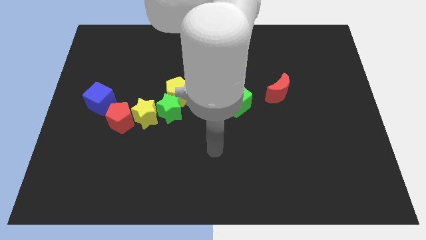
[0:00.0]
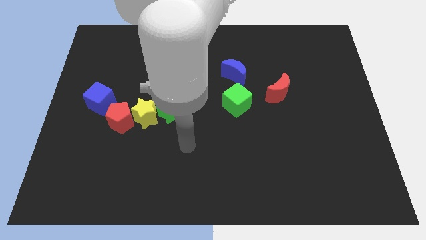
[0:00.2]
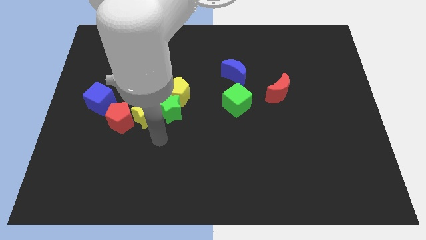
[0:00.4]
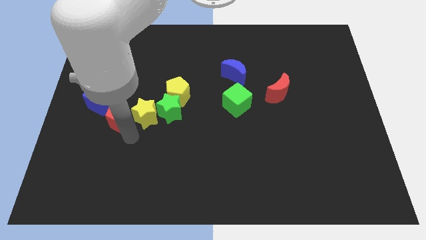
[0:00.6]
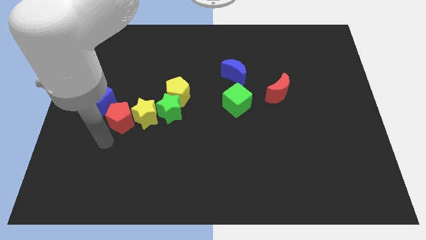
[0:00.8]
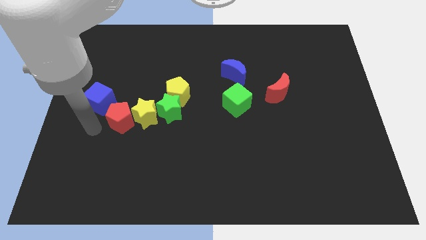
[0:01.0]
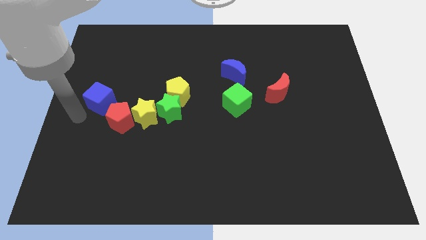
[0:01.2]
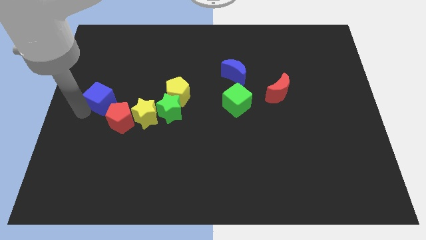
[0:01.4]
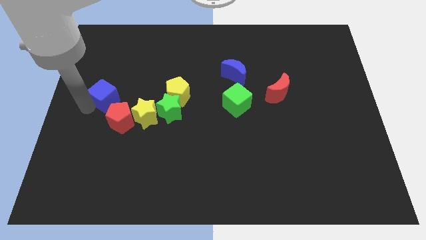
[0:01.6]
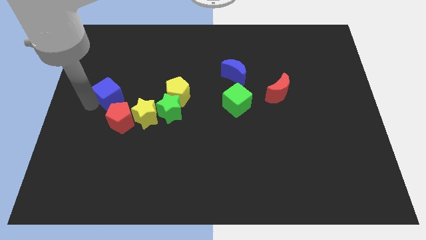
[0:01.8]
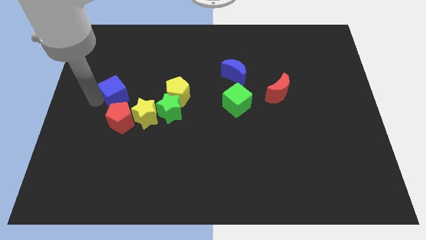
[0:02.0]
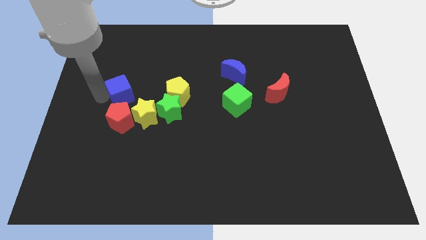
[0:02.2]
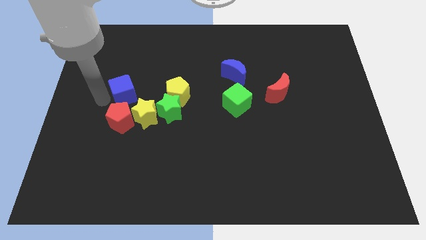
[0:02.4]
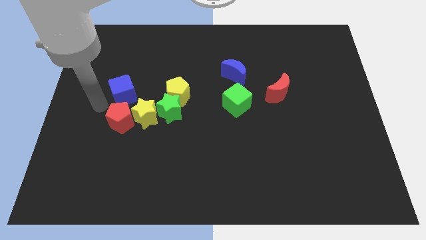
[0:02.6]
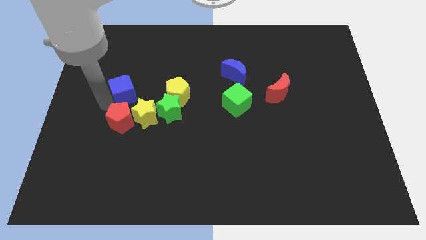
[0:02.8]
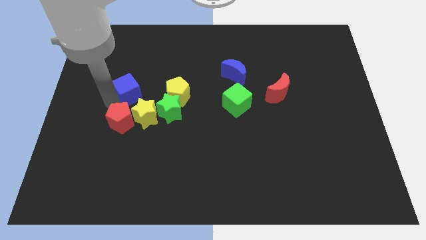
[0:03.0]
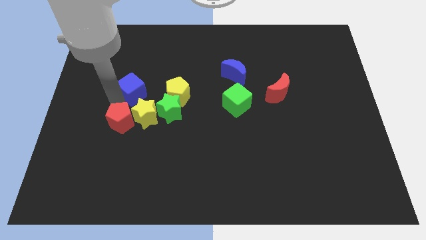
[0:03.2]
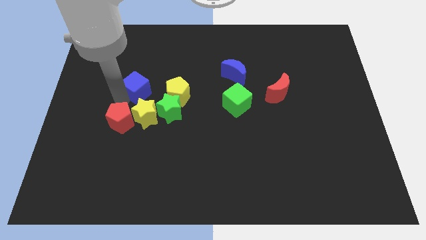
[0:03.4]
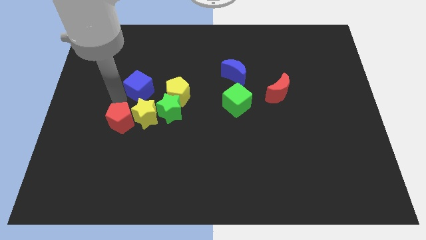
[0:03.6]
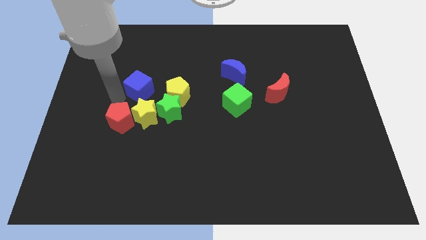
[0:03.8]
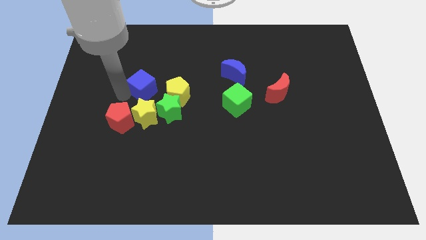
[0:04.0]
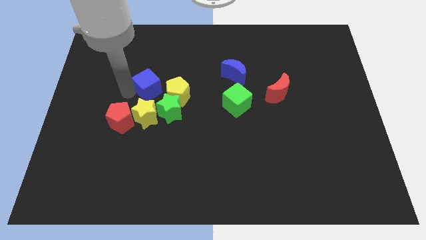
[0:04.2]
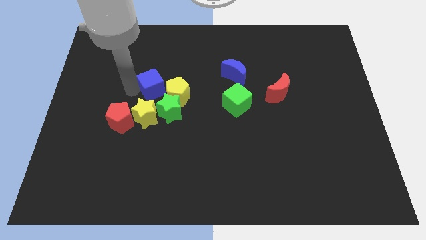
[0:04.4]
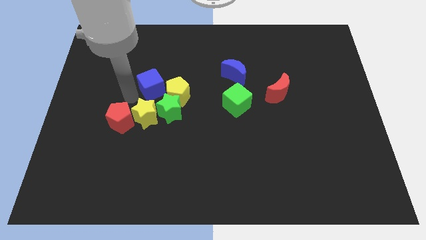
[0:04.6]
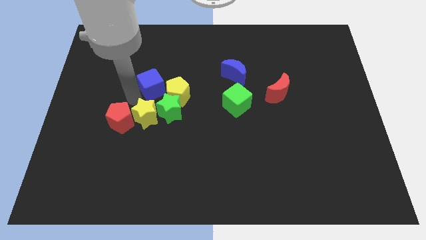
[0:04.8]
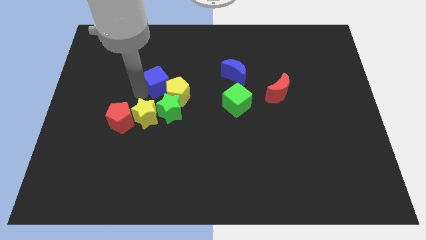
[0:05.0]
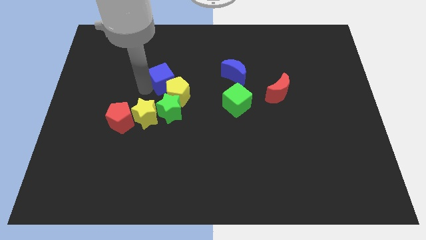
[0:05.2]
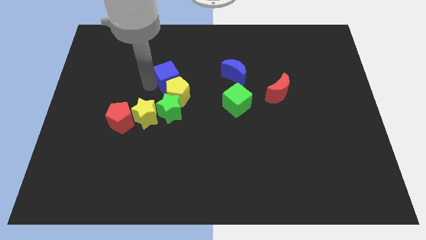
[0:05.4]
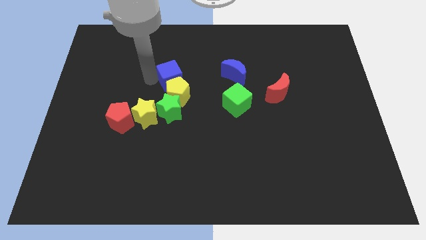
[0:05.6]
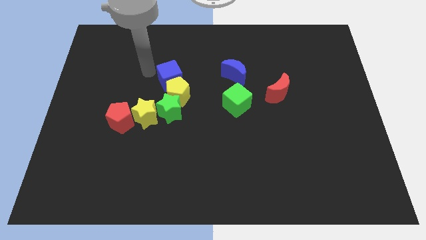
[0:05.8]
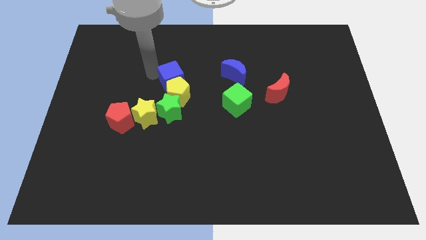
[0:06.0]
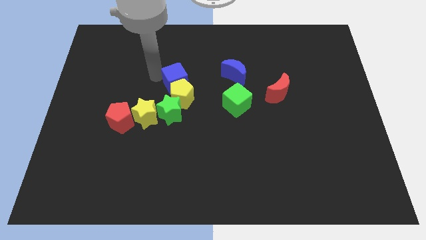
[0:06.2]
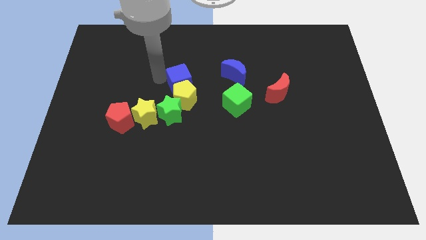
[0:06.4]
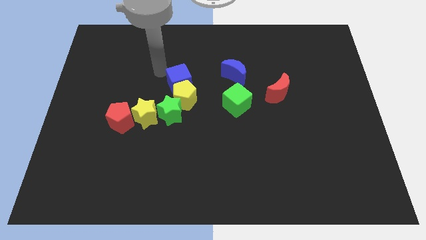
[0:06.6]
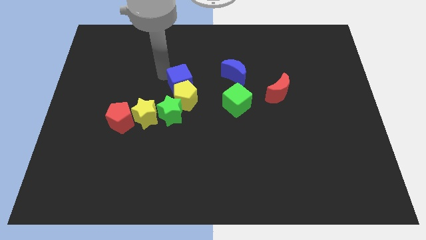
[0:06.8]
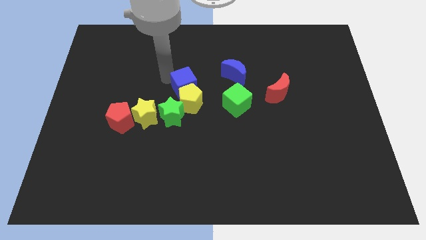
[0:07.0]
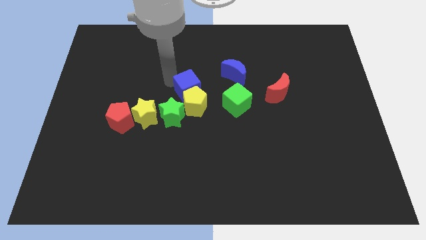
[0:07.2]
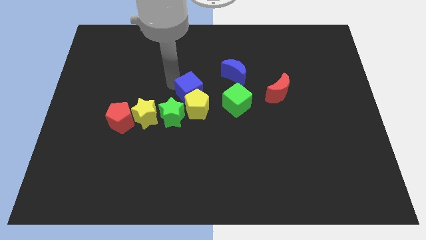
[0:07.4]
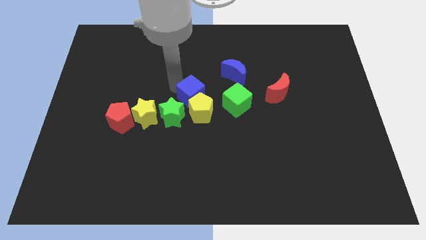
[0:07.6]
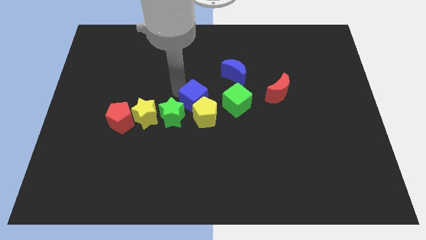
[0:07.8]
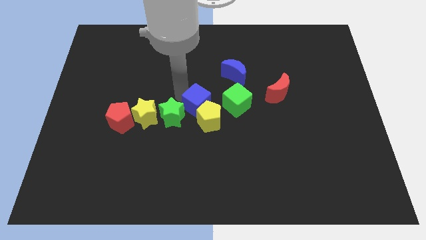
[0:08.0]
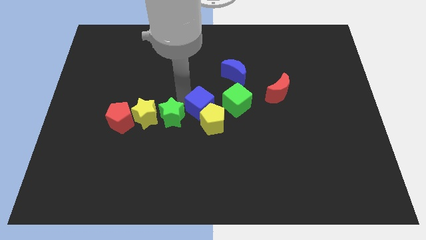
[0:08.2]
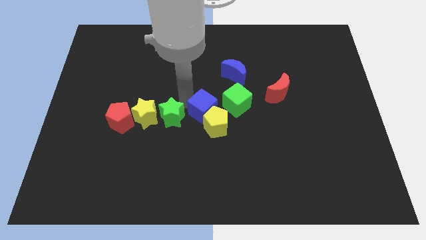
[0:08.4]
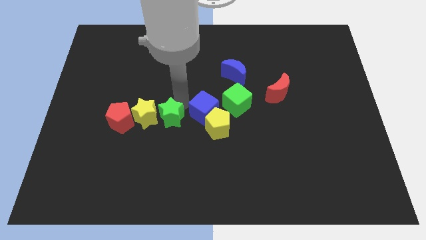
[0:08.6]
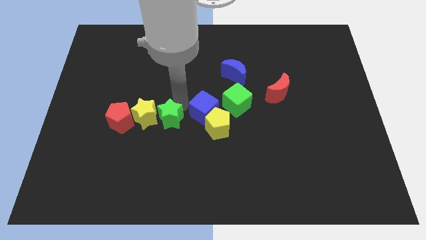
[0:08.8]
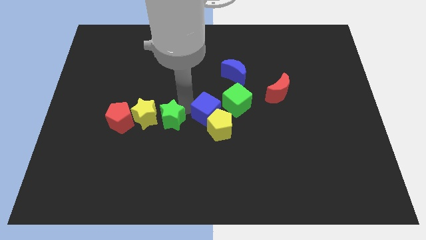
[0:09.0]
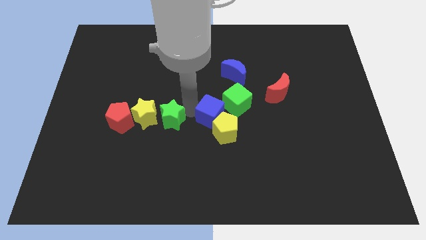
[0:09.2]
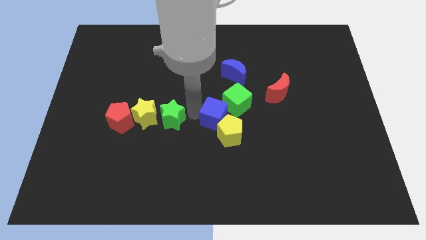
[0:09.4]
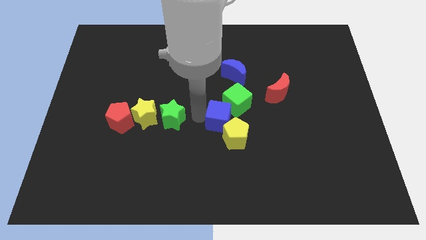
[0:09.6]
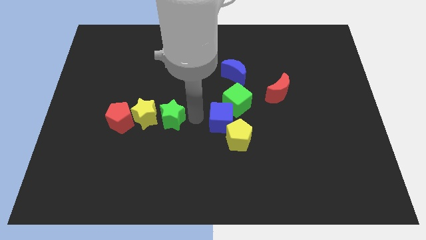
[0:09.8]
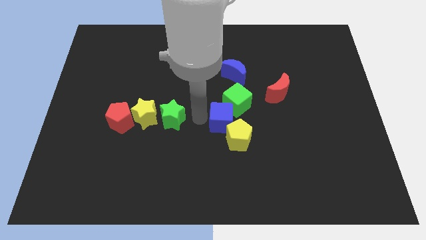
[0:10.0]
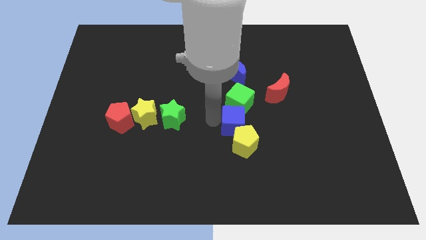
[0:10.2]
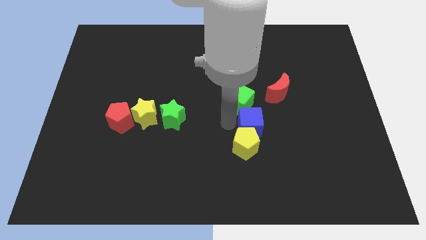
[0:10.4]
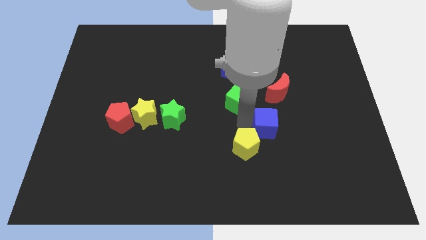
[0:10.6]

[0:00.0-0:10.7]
move the blue cube below the red moon
